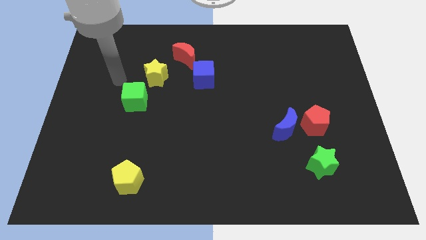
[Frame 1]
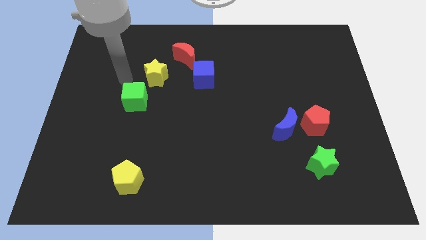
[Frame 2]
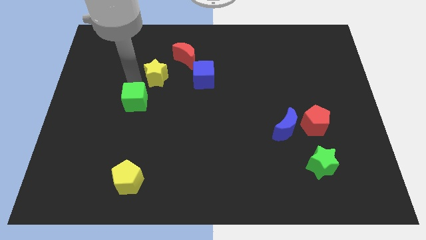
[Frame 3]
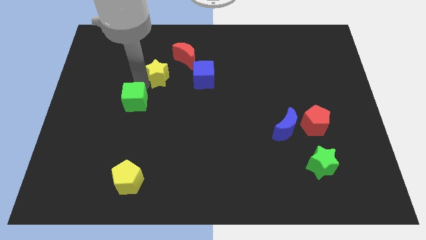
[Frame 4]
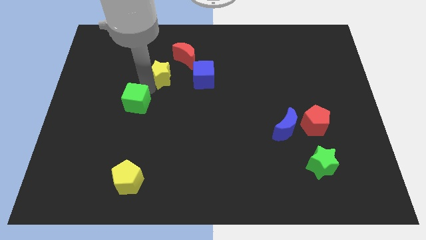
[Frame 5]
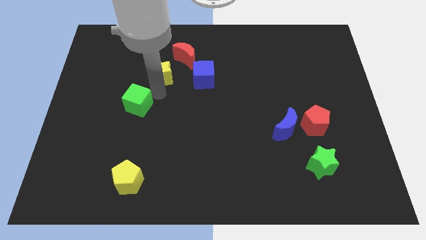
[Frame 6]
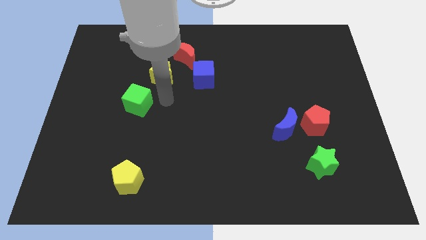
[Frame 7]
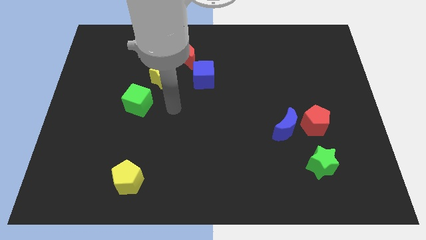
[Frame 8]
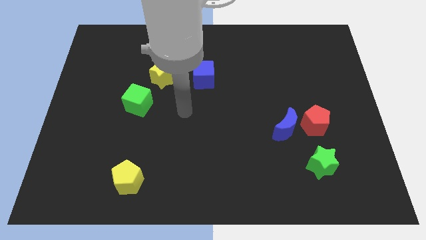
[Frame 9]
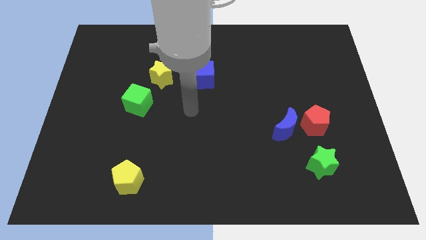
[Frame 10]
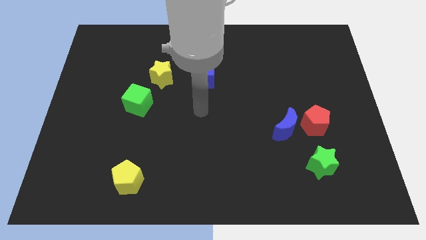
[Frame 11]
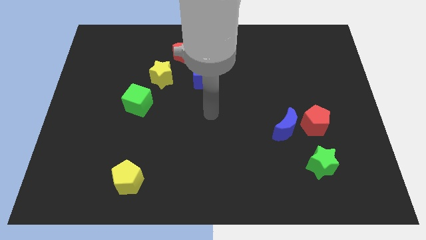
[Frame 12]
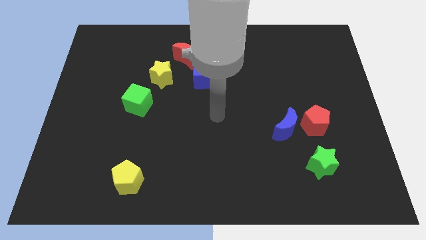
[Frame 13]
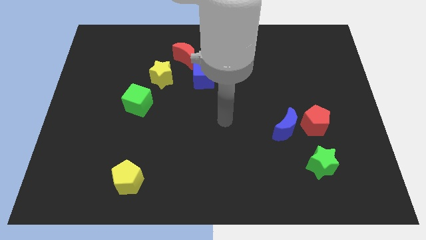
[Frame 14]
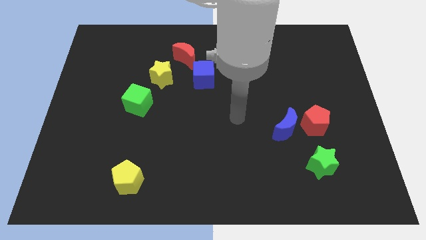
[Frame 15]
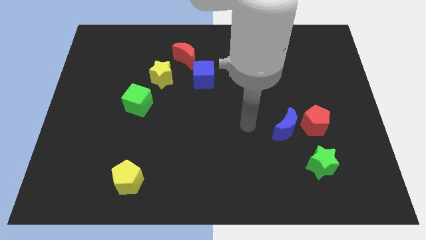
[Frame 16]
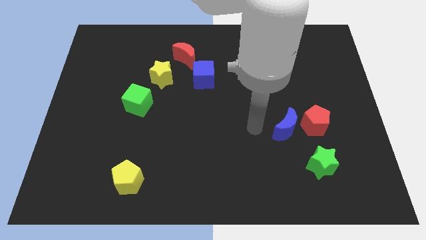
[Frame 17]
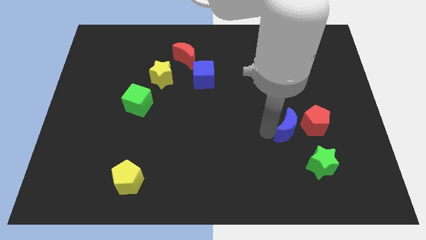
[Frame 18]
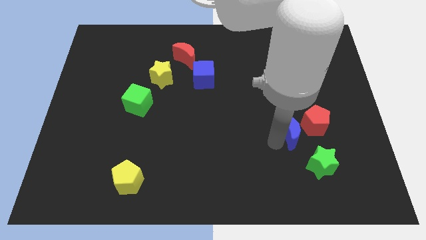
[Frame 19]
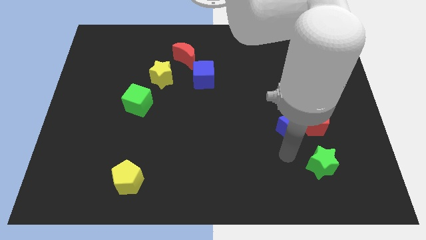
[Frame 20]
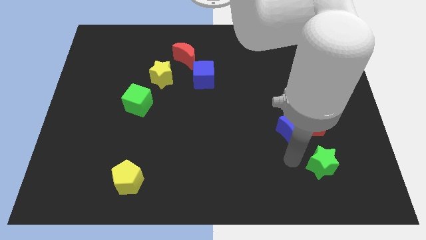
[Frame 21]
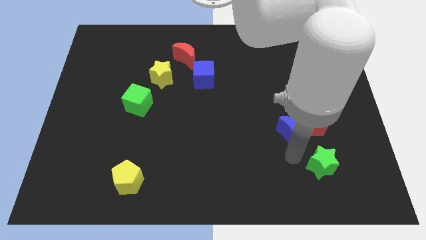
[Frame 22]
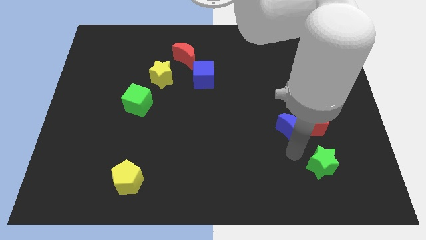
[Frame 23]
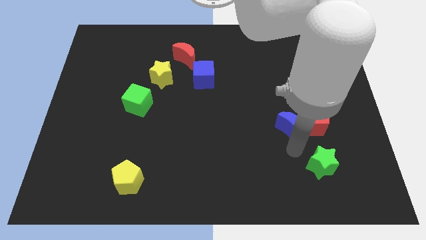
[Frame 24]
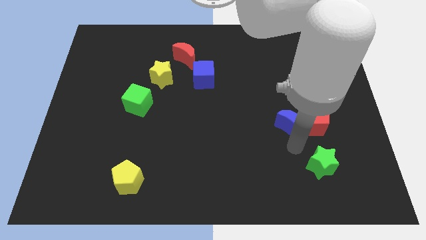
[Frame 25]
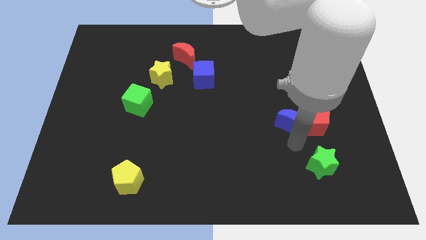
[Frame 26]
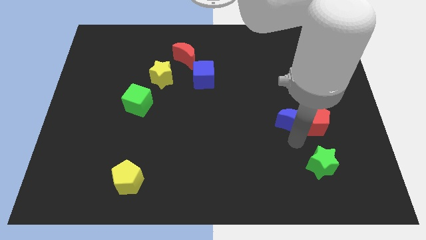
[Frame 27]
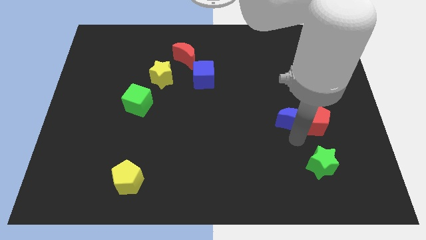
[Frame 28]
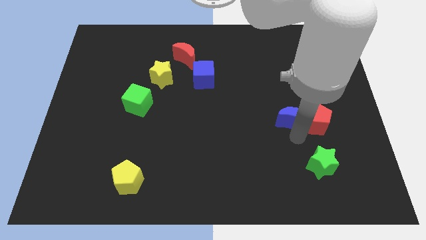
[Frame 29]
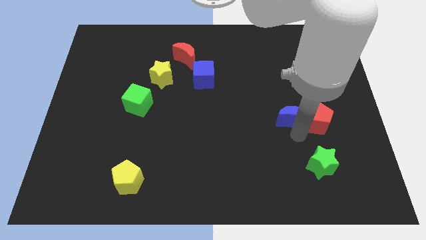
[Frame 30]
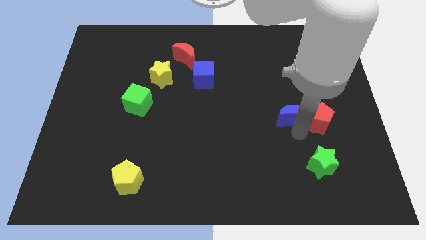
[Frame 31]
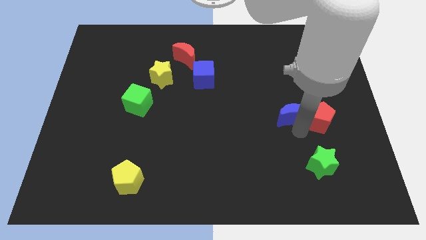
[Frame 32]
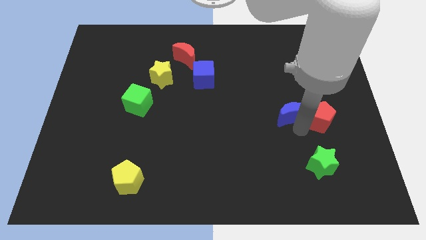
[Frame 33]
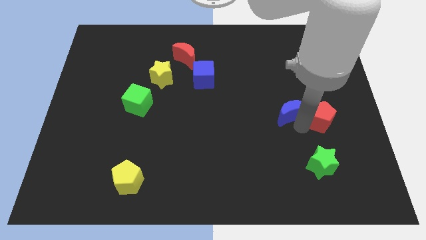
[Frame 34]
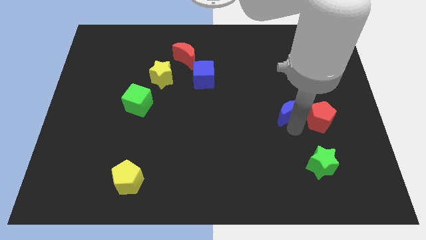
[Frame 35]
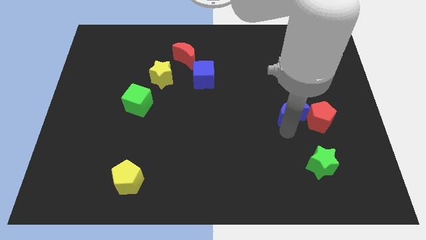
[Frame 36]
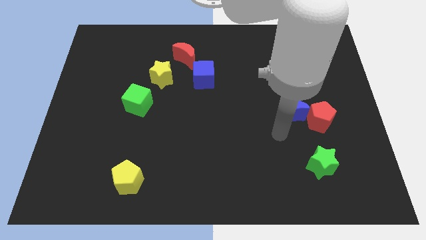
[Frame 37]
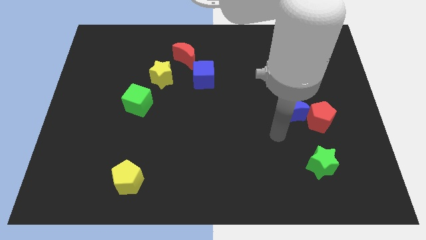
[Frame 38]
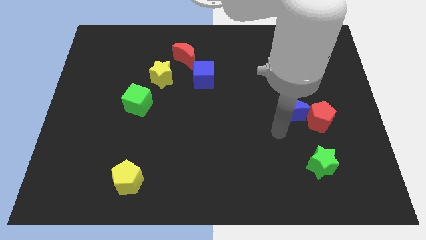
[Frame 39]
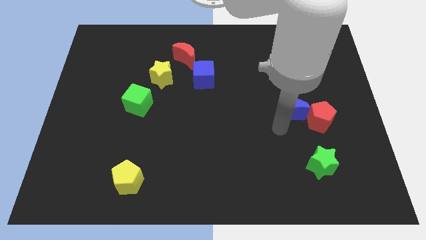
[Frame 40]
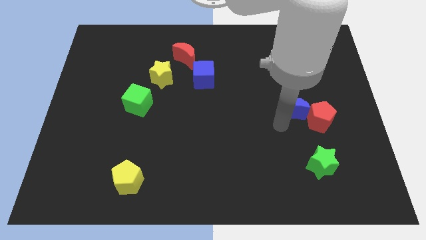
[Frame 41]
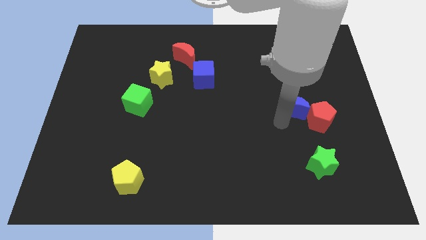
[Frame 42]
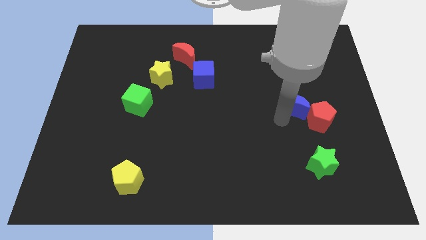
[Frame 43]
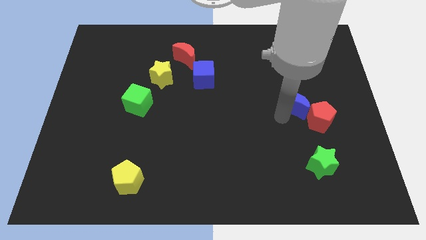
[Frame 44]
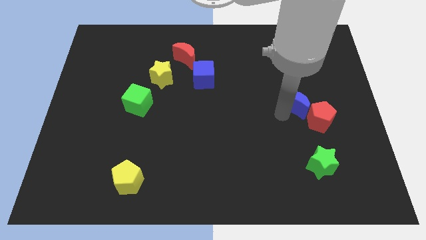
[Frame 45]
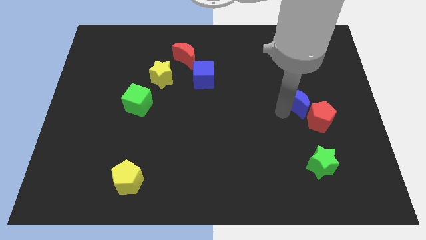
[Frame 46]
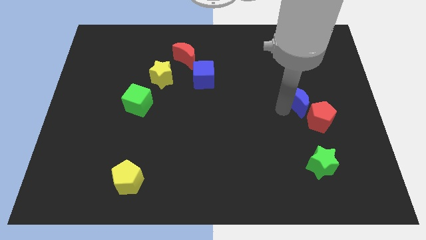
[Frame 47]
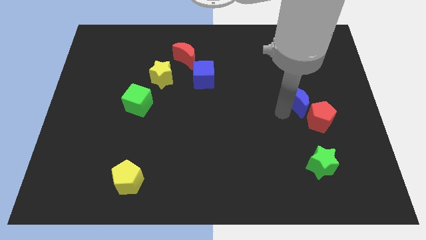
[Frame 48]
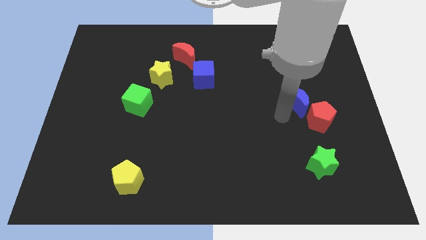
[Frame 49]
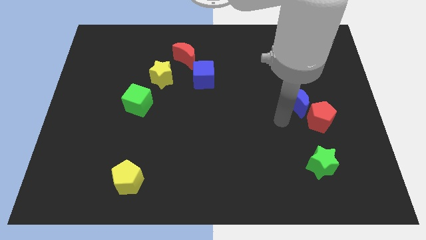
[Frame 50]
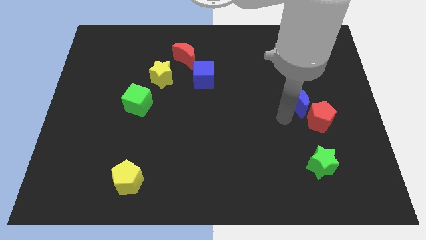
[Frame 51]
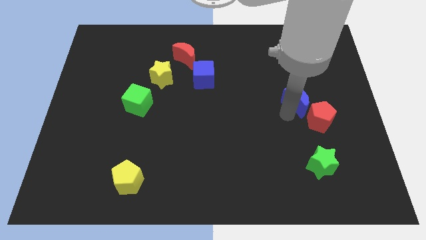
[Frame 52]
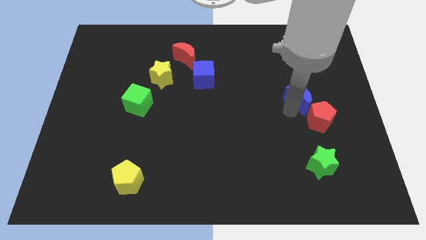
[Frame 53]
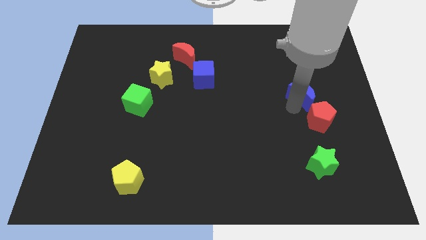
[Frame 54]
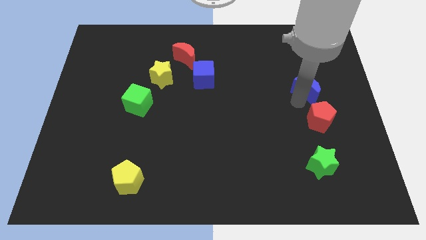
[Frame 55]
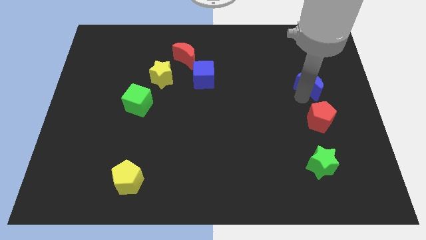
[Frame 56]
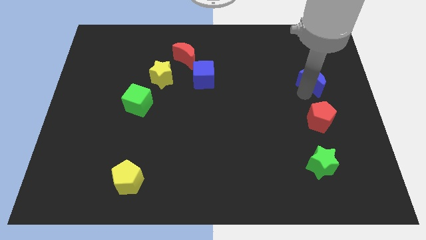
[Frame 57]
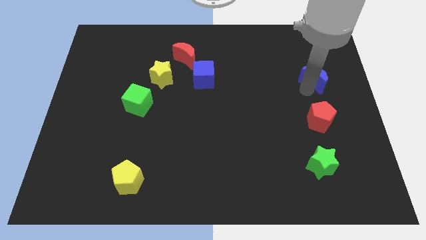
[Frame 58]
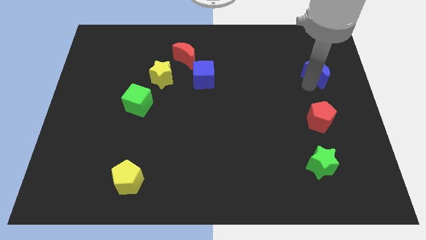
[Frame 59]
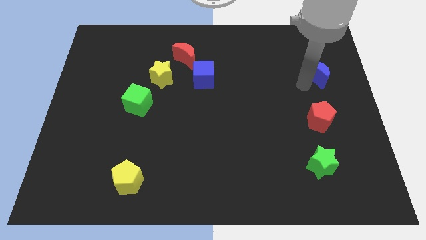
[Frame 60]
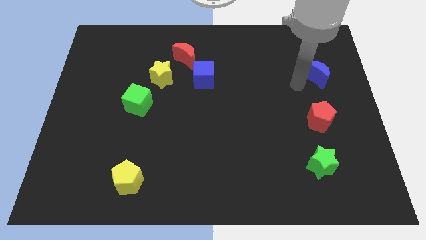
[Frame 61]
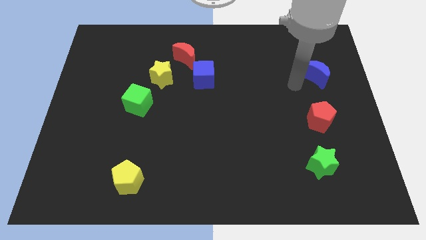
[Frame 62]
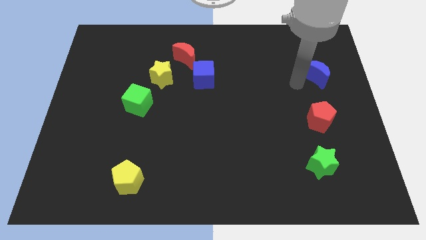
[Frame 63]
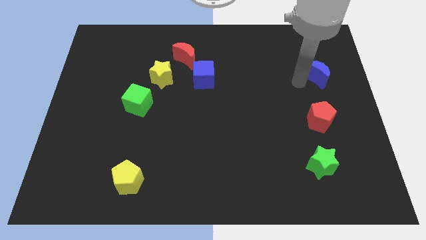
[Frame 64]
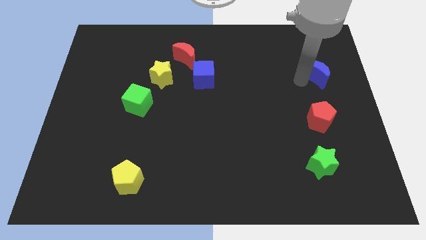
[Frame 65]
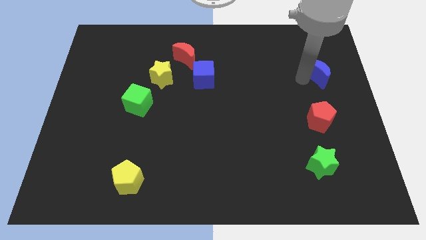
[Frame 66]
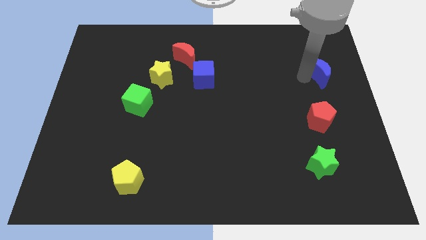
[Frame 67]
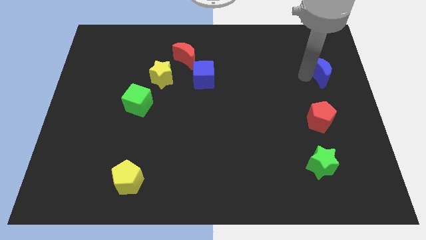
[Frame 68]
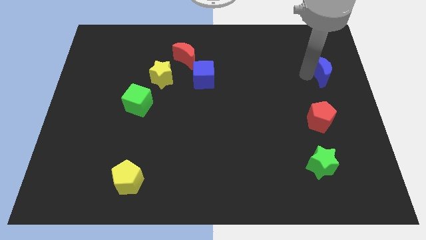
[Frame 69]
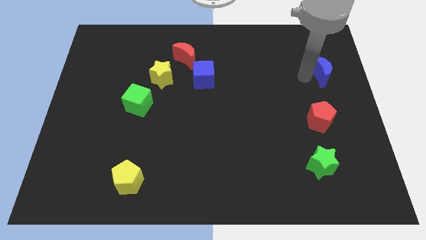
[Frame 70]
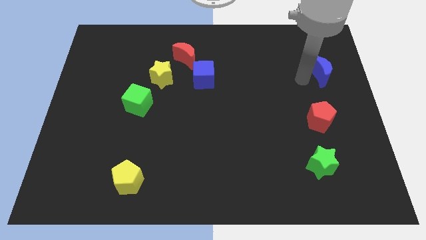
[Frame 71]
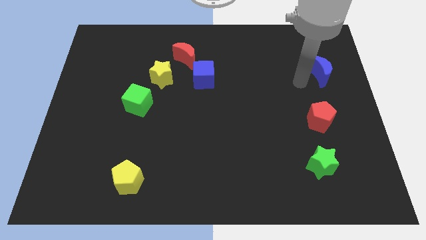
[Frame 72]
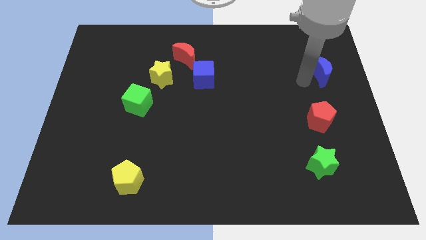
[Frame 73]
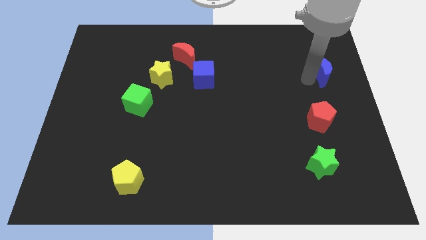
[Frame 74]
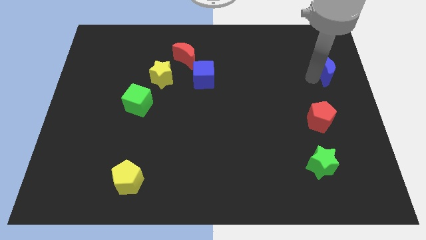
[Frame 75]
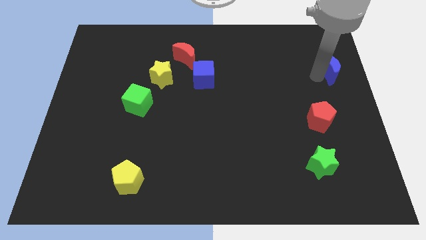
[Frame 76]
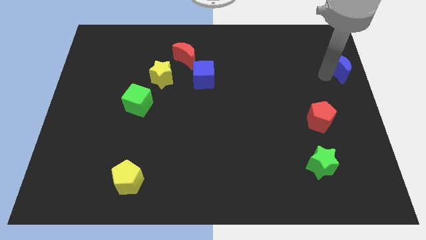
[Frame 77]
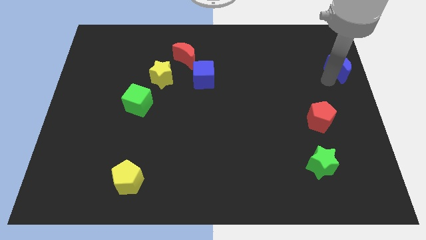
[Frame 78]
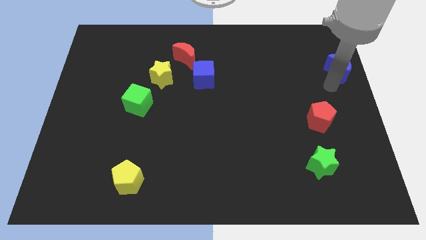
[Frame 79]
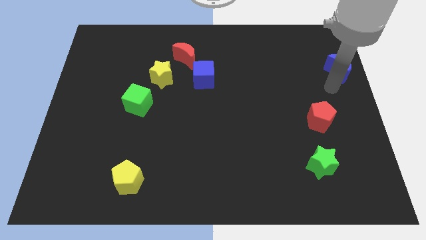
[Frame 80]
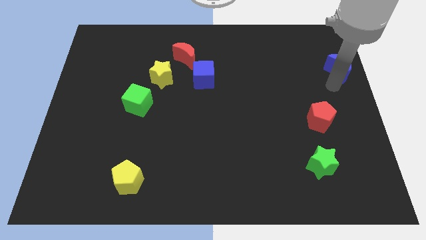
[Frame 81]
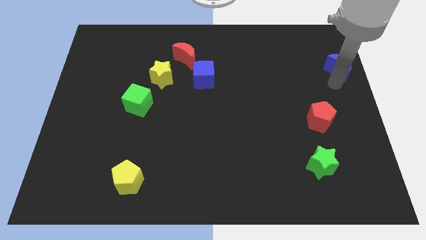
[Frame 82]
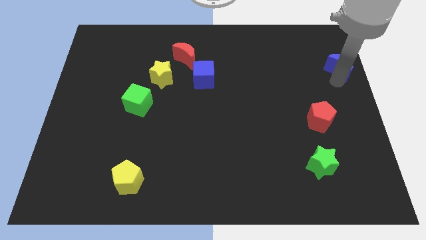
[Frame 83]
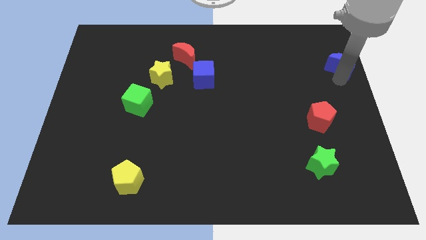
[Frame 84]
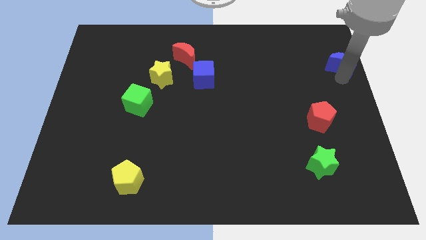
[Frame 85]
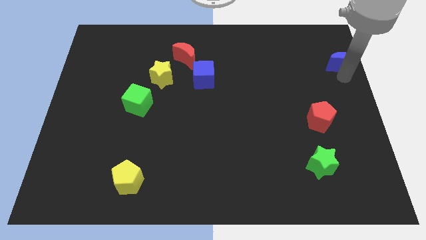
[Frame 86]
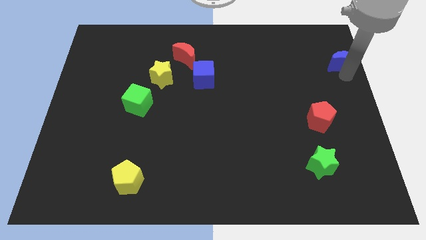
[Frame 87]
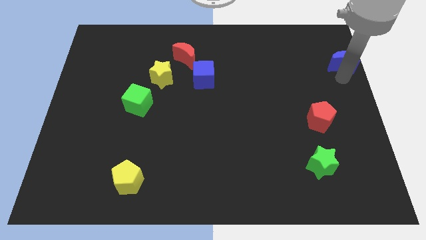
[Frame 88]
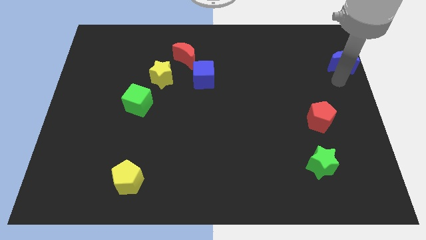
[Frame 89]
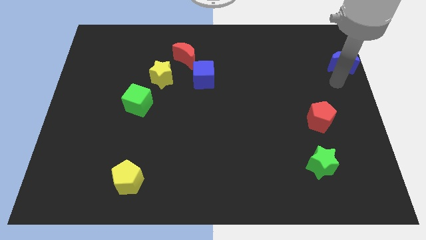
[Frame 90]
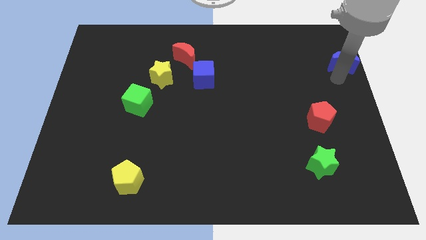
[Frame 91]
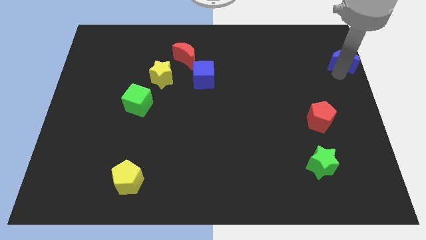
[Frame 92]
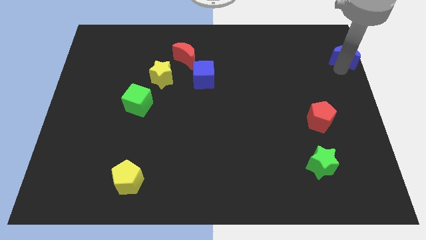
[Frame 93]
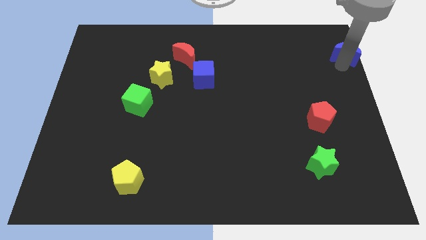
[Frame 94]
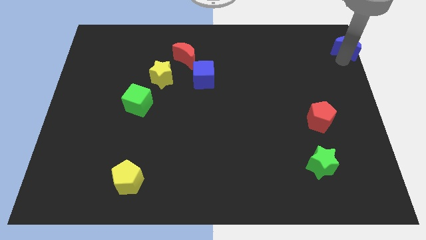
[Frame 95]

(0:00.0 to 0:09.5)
put the blue moon to the upper right corner
